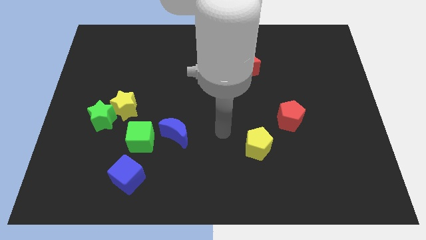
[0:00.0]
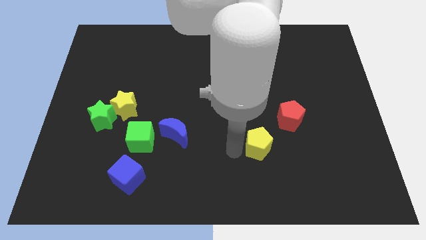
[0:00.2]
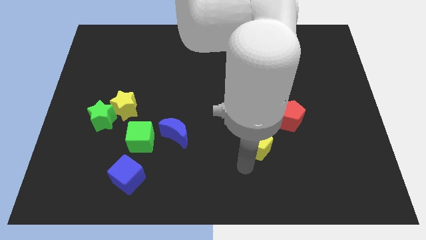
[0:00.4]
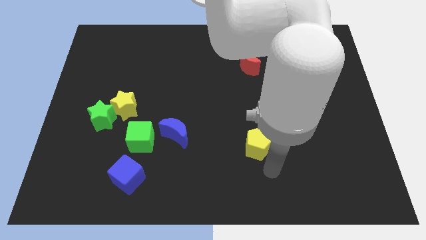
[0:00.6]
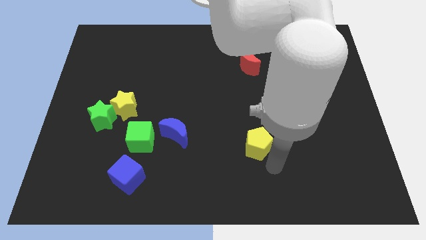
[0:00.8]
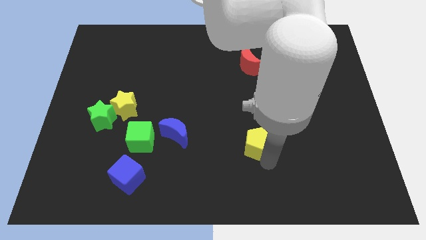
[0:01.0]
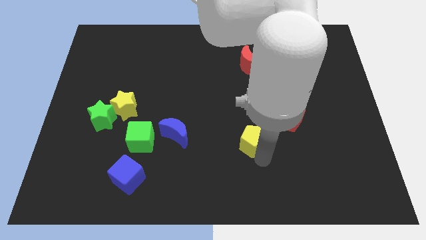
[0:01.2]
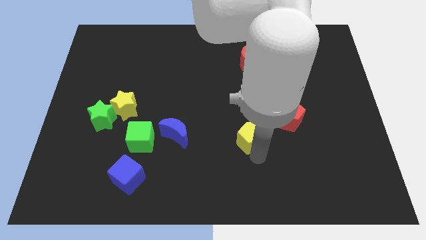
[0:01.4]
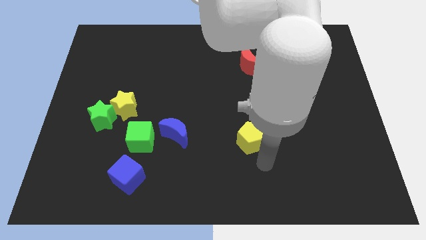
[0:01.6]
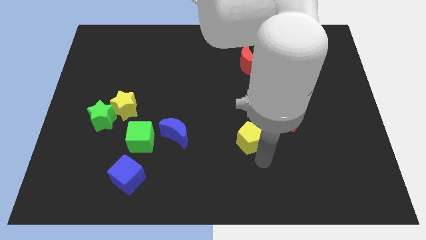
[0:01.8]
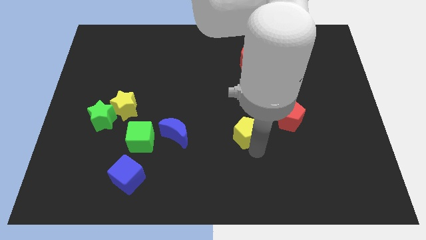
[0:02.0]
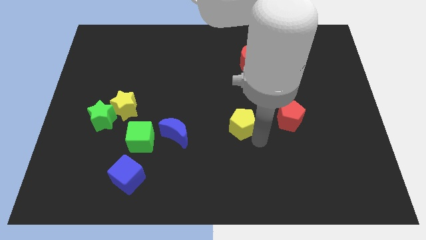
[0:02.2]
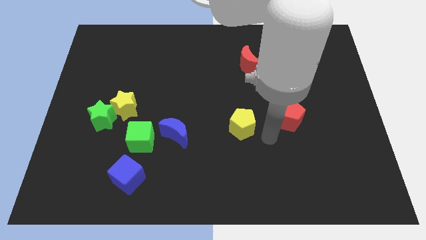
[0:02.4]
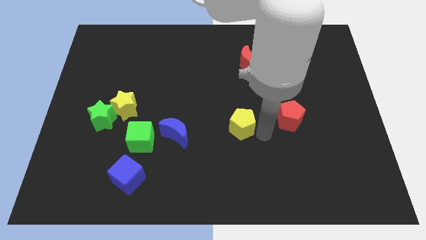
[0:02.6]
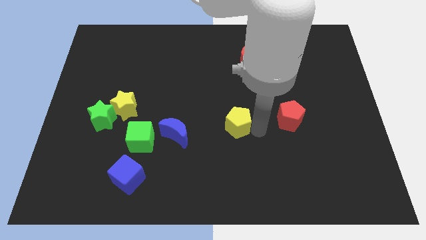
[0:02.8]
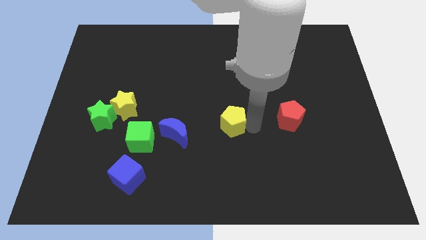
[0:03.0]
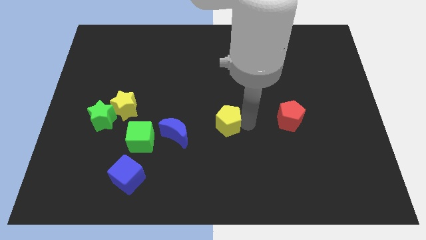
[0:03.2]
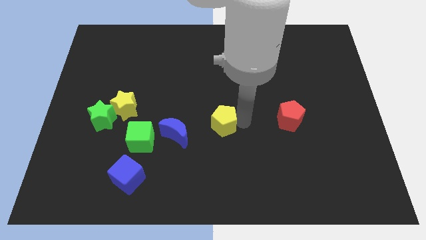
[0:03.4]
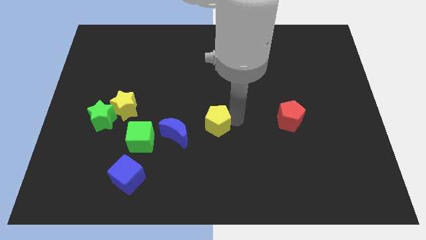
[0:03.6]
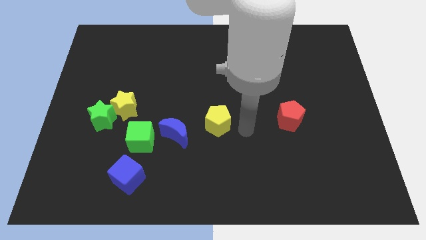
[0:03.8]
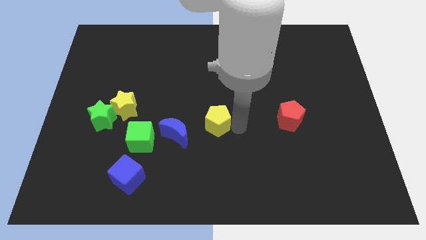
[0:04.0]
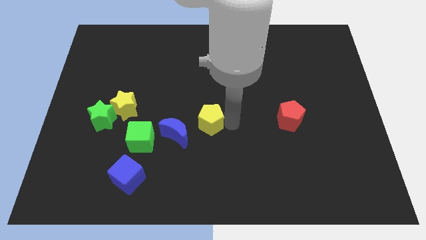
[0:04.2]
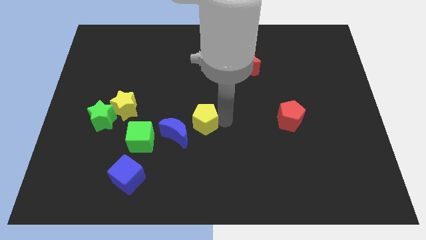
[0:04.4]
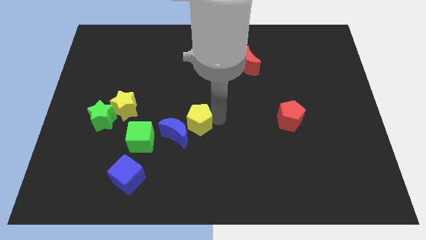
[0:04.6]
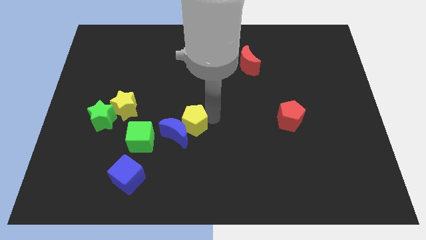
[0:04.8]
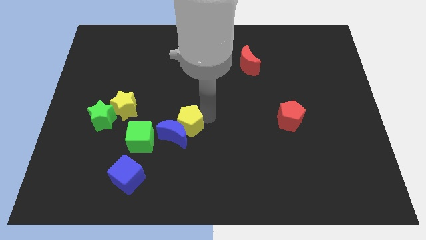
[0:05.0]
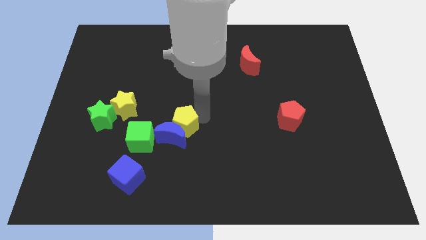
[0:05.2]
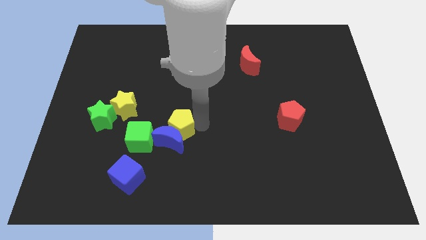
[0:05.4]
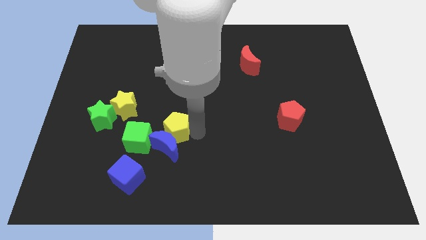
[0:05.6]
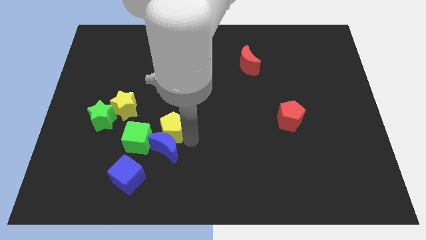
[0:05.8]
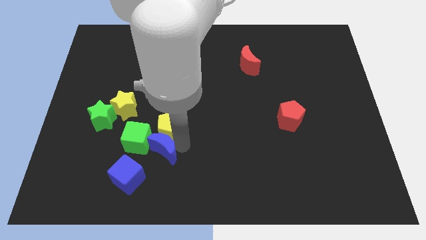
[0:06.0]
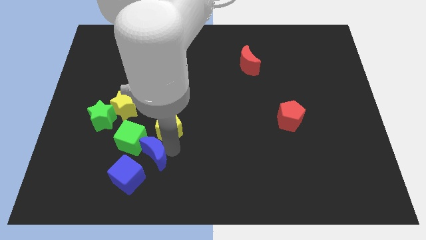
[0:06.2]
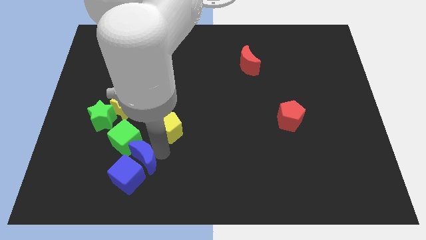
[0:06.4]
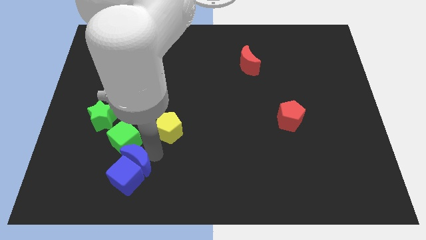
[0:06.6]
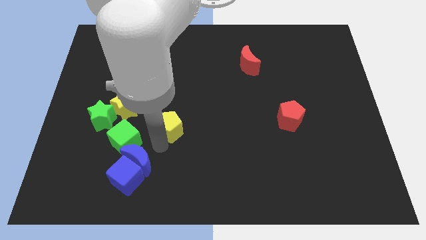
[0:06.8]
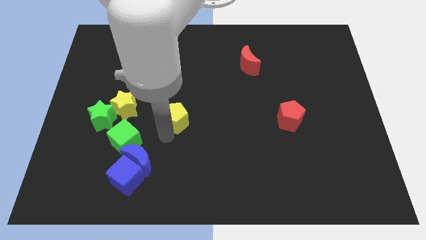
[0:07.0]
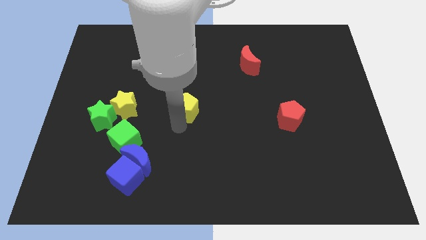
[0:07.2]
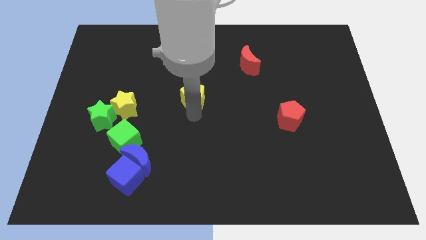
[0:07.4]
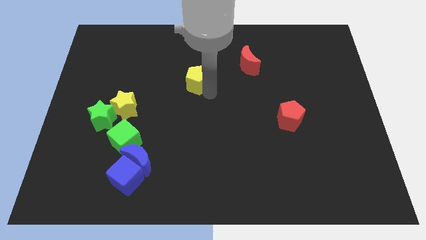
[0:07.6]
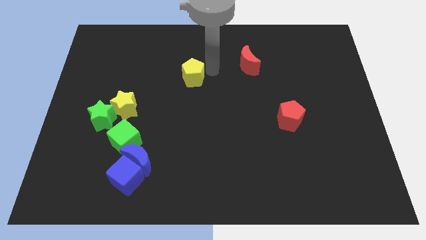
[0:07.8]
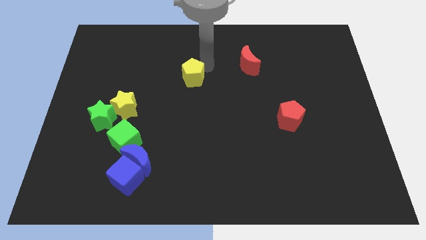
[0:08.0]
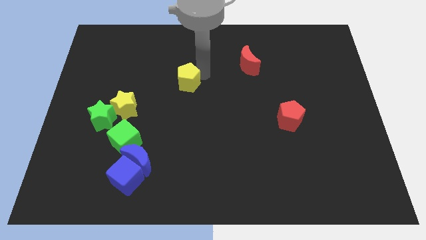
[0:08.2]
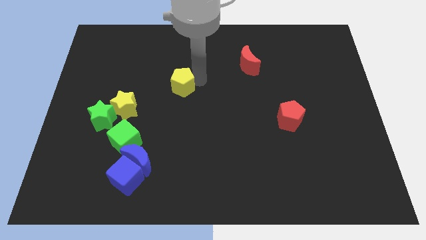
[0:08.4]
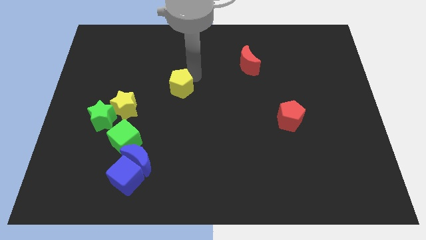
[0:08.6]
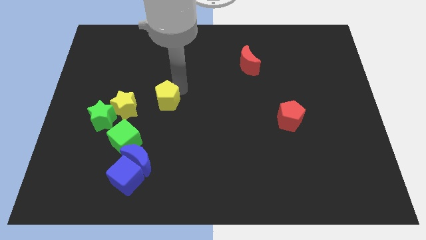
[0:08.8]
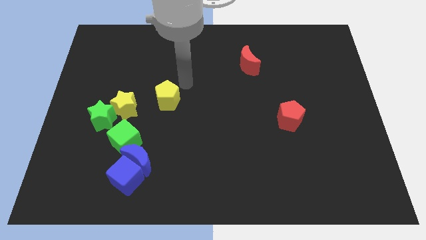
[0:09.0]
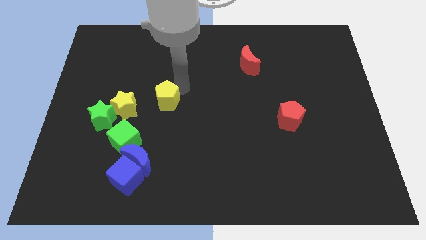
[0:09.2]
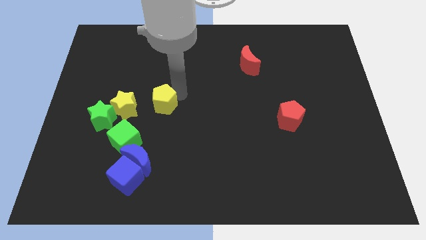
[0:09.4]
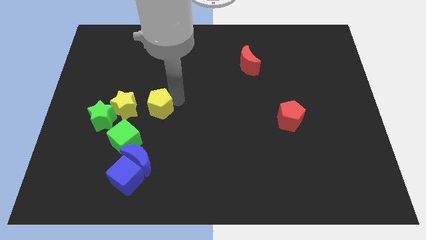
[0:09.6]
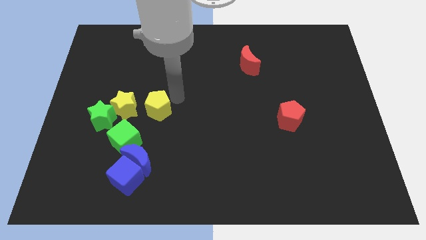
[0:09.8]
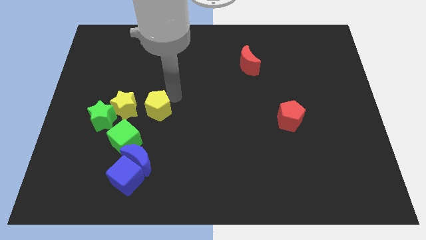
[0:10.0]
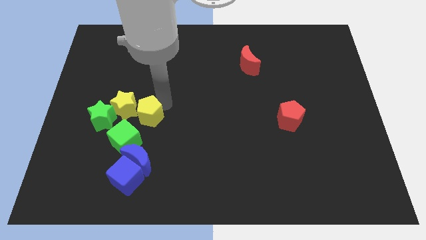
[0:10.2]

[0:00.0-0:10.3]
push the yellow pentagon left

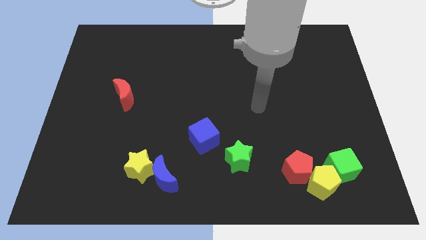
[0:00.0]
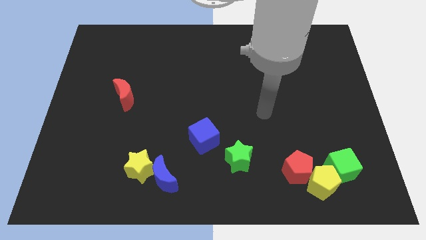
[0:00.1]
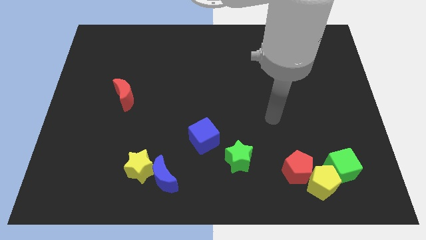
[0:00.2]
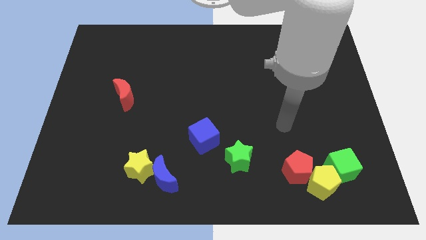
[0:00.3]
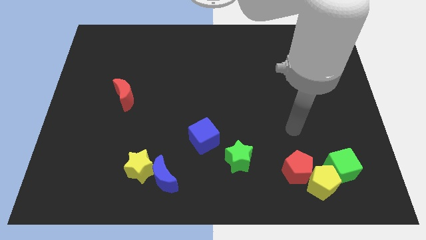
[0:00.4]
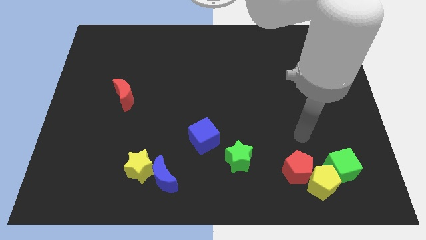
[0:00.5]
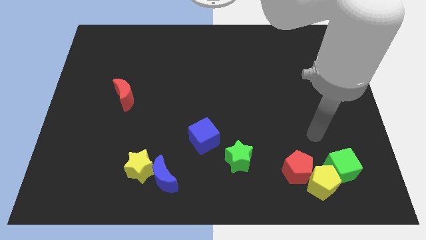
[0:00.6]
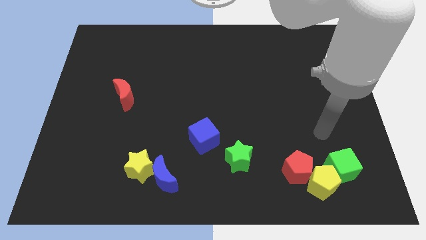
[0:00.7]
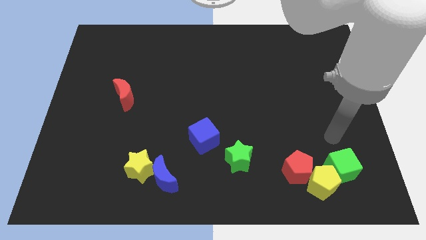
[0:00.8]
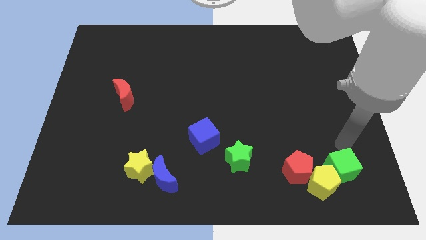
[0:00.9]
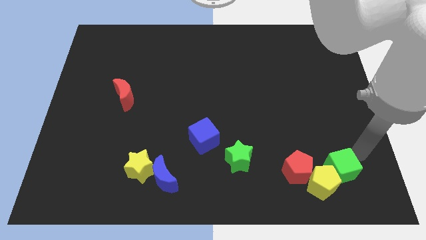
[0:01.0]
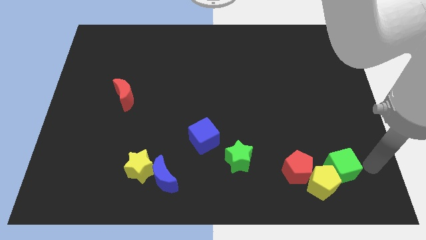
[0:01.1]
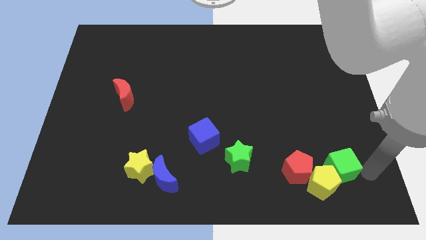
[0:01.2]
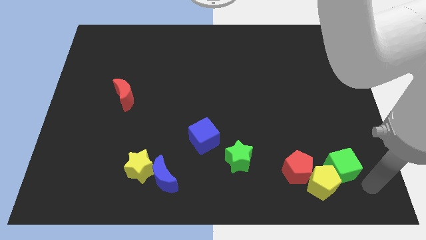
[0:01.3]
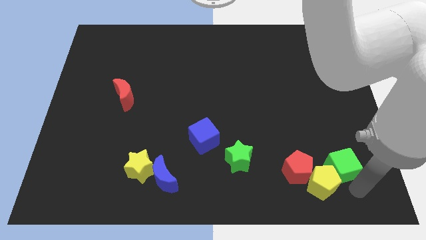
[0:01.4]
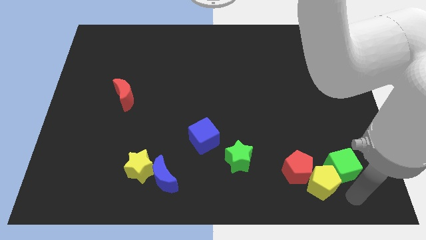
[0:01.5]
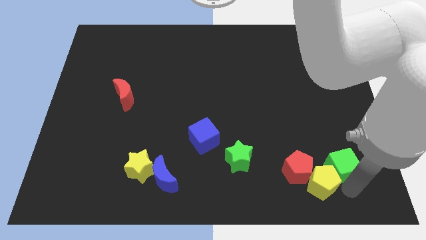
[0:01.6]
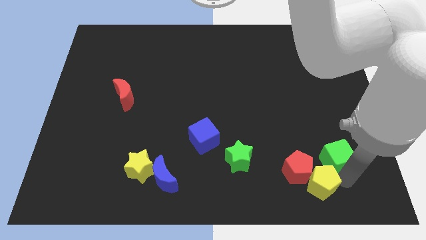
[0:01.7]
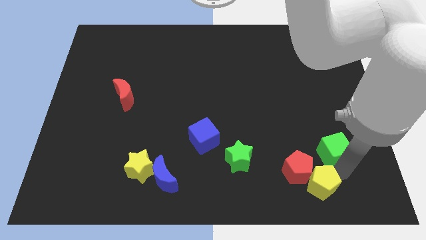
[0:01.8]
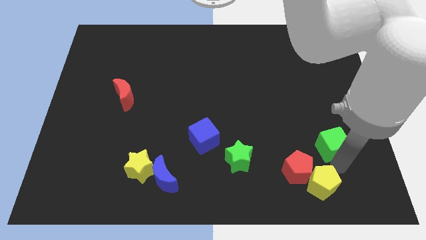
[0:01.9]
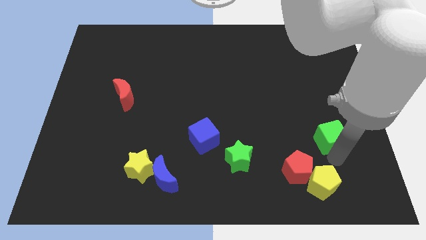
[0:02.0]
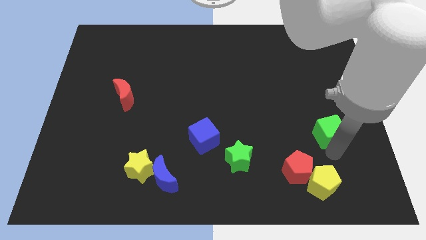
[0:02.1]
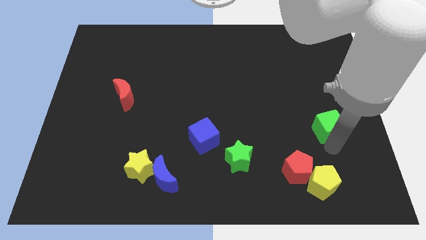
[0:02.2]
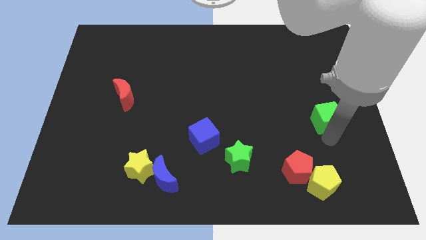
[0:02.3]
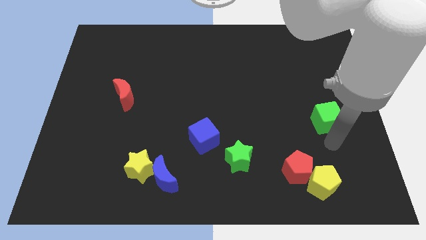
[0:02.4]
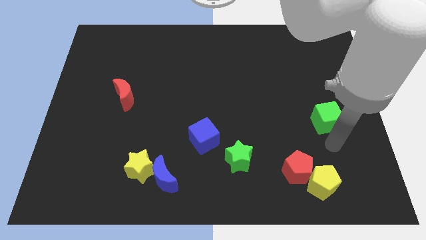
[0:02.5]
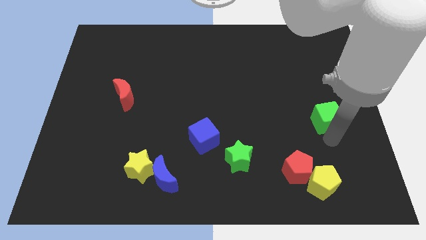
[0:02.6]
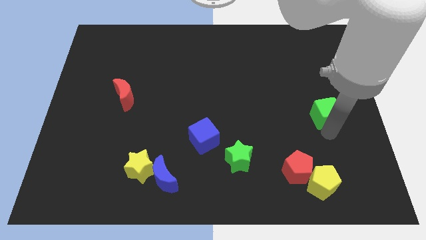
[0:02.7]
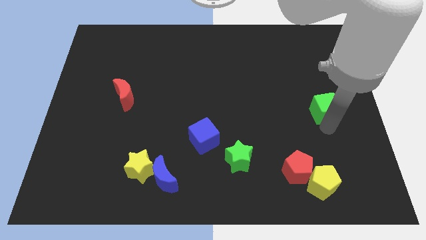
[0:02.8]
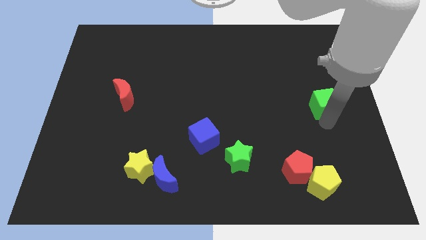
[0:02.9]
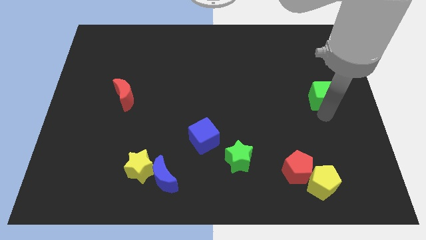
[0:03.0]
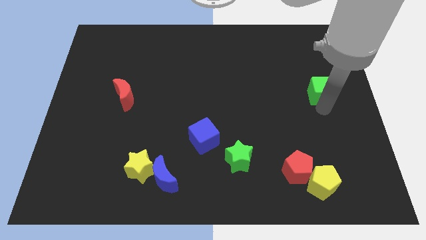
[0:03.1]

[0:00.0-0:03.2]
move the green cube up
